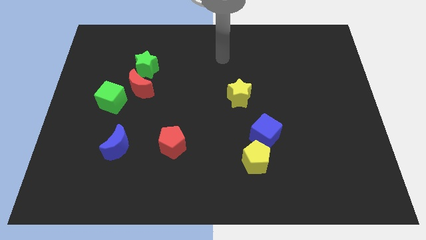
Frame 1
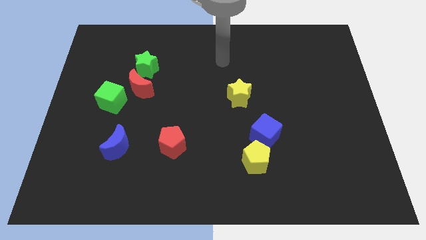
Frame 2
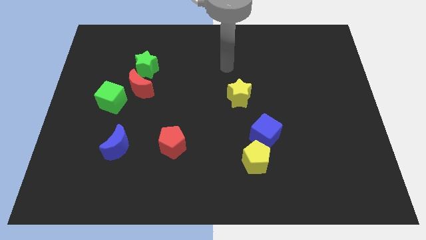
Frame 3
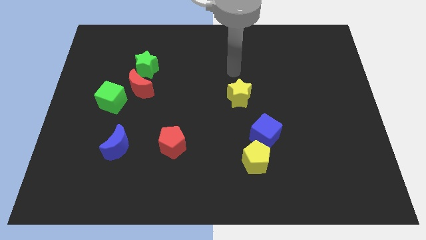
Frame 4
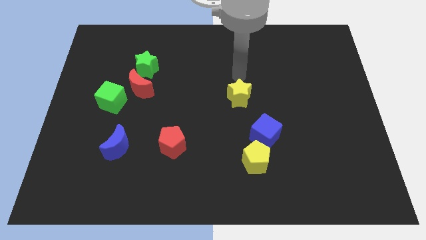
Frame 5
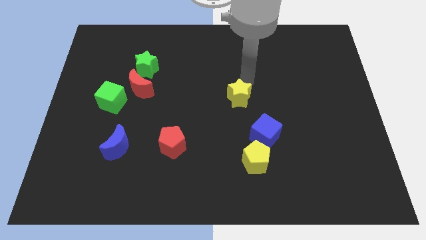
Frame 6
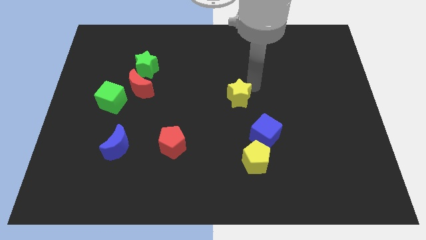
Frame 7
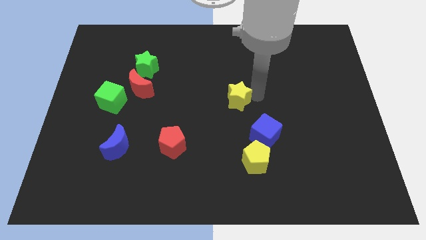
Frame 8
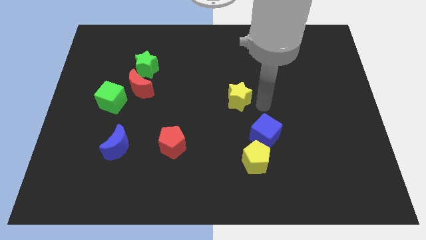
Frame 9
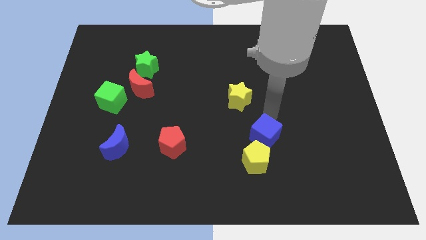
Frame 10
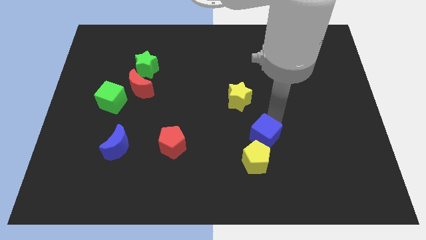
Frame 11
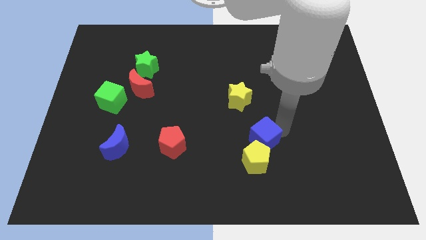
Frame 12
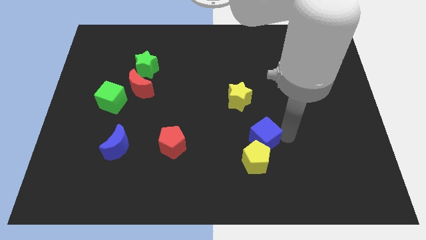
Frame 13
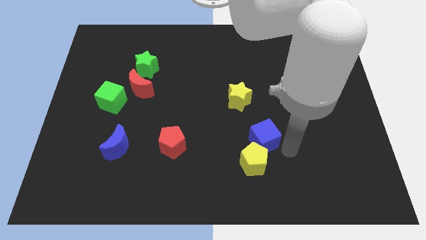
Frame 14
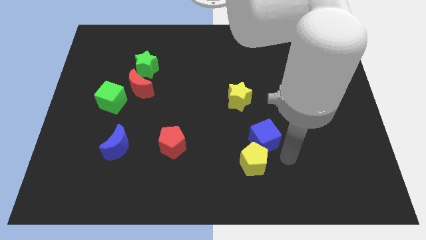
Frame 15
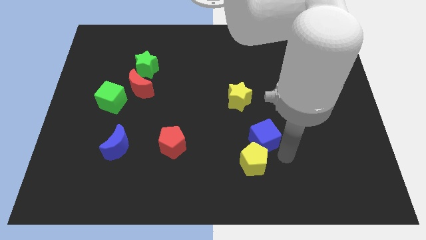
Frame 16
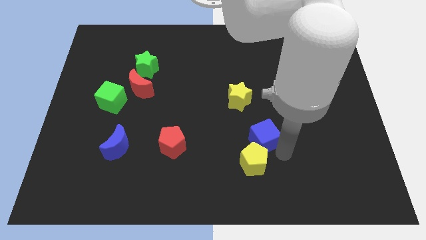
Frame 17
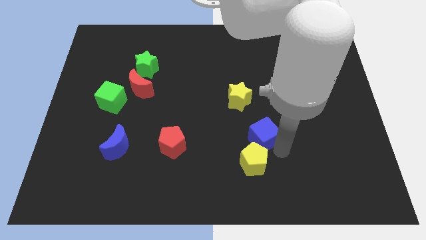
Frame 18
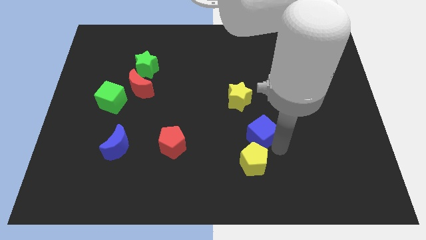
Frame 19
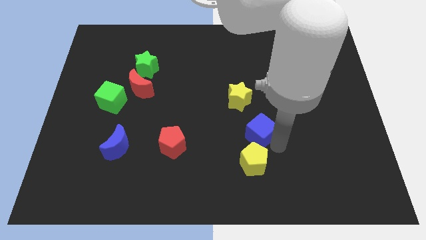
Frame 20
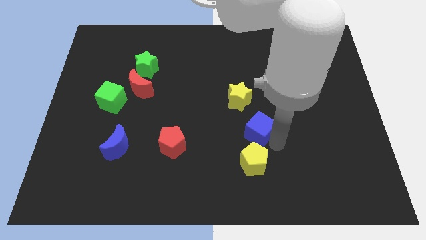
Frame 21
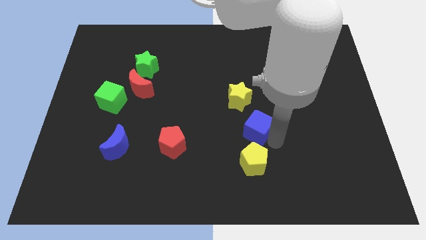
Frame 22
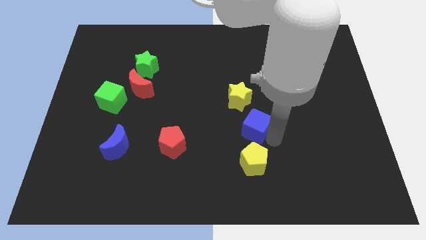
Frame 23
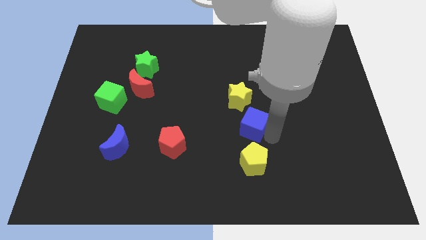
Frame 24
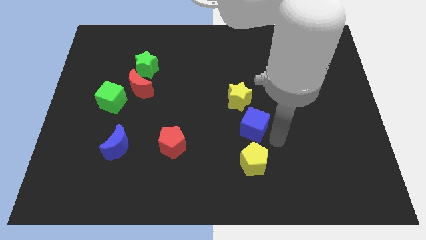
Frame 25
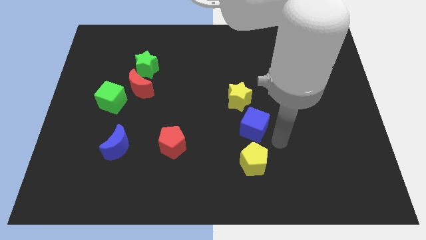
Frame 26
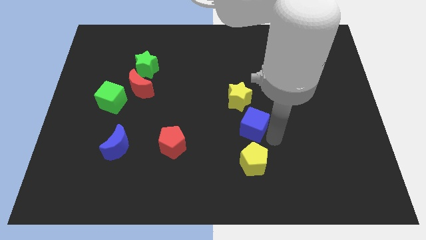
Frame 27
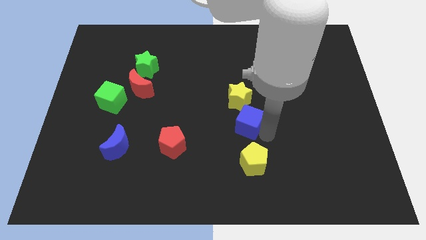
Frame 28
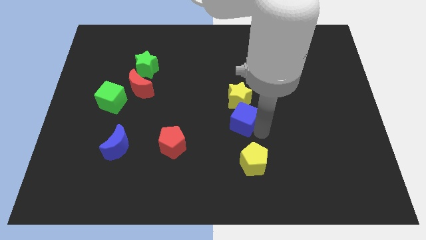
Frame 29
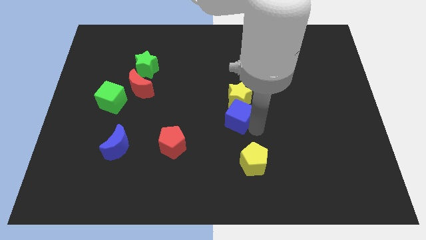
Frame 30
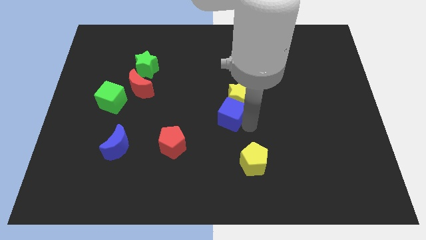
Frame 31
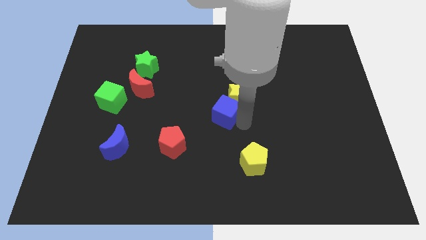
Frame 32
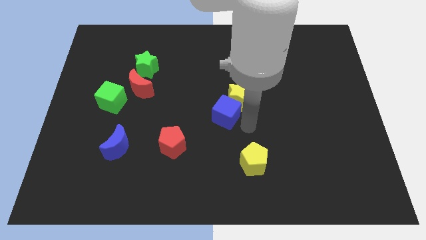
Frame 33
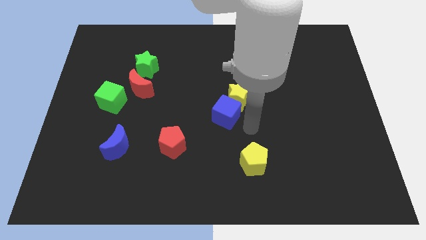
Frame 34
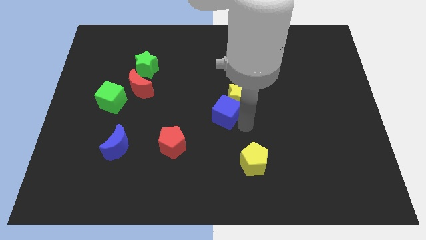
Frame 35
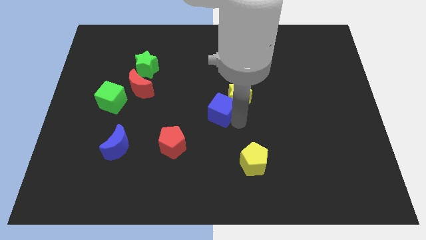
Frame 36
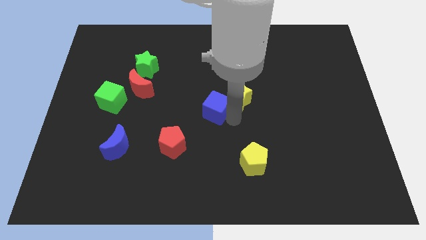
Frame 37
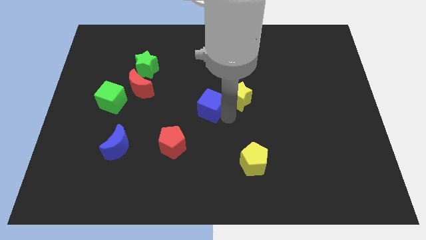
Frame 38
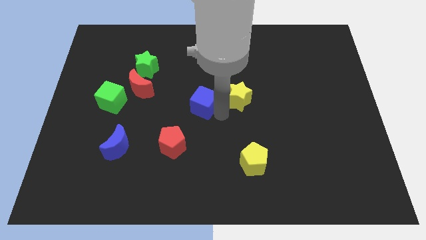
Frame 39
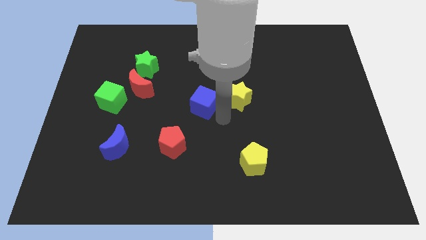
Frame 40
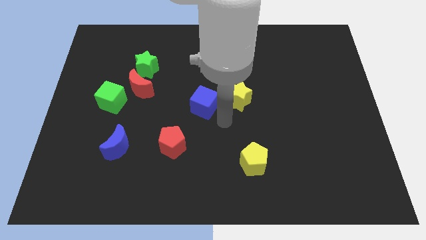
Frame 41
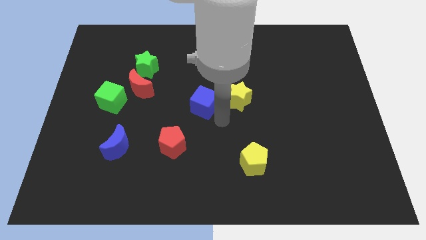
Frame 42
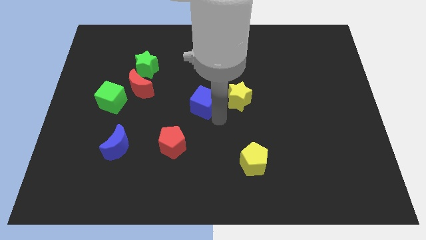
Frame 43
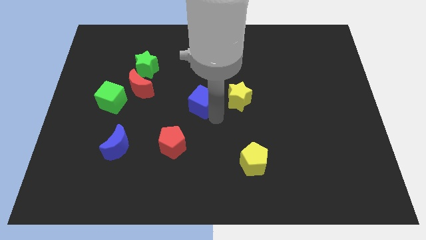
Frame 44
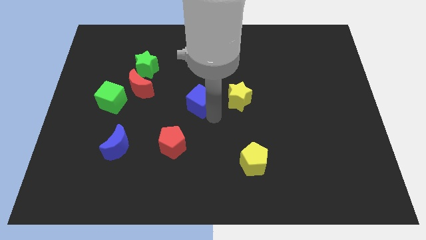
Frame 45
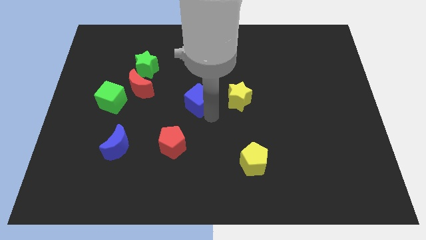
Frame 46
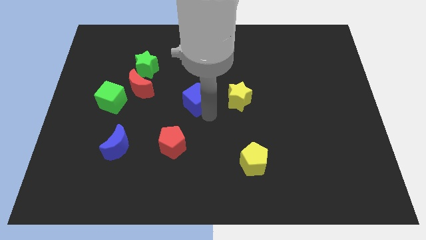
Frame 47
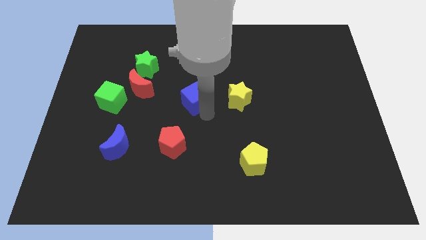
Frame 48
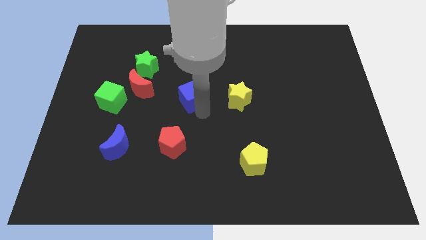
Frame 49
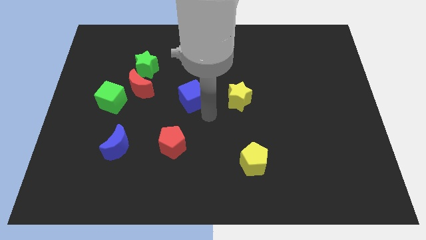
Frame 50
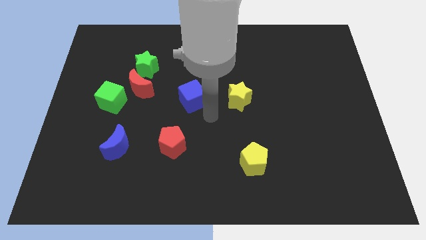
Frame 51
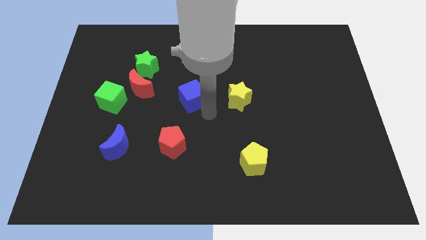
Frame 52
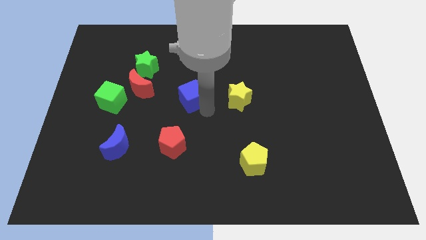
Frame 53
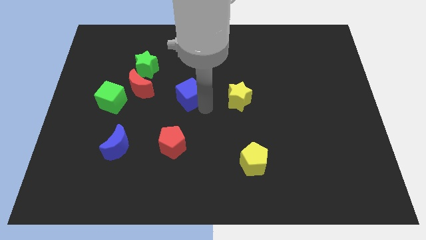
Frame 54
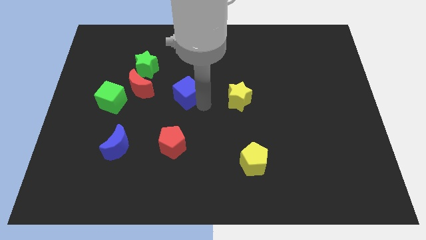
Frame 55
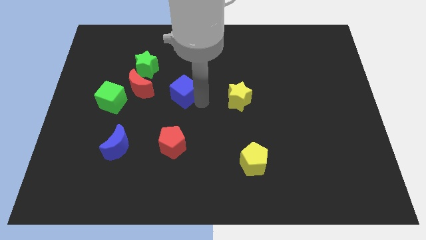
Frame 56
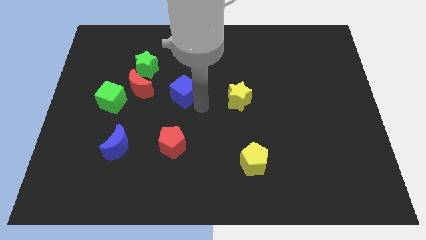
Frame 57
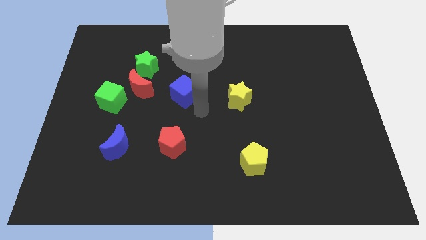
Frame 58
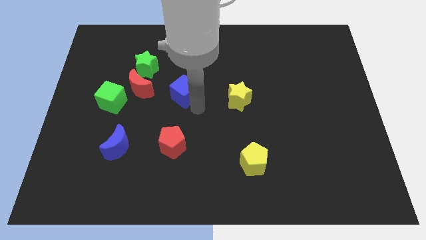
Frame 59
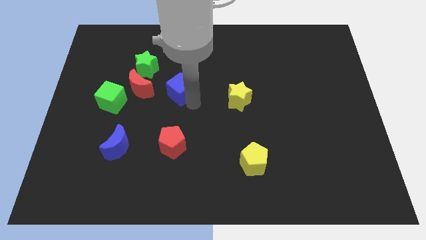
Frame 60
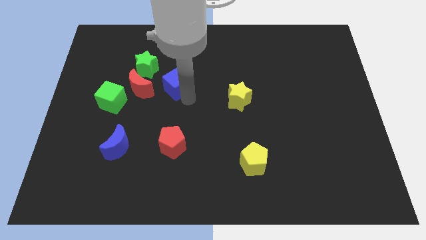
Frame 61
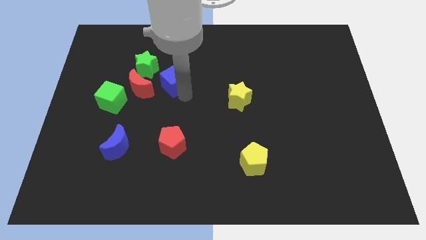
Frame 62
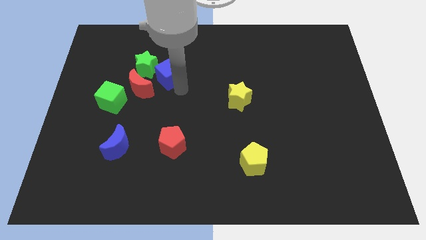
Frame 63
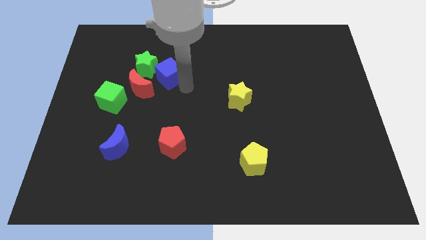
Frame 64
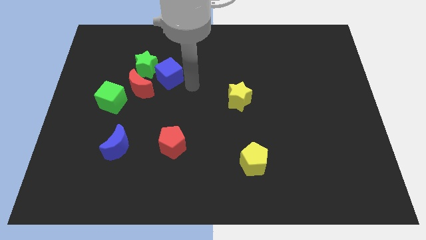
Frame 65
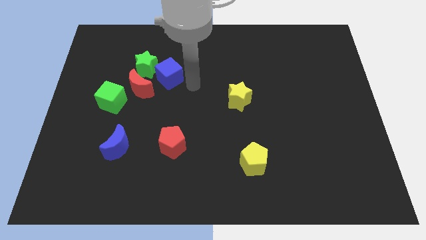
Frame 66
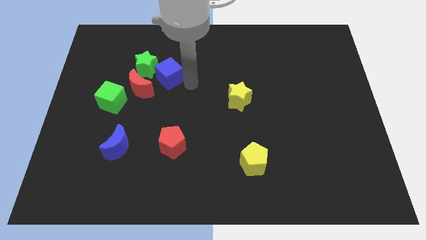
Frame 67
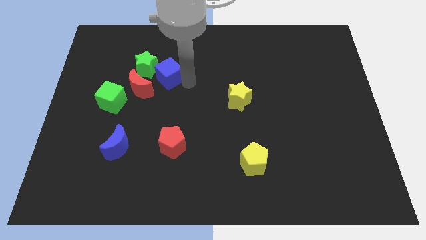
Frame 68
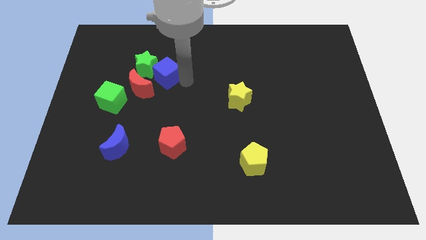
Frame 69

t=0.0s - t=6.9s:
put the blue cube next to the green star
